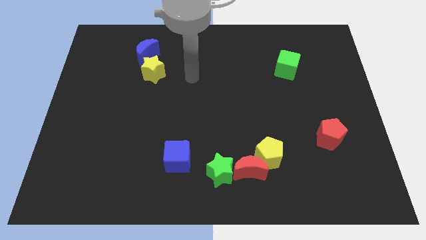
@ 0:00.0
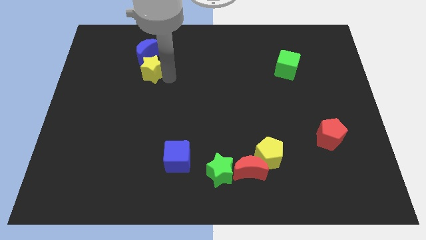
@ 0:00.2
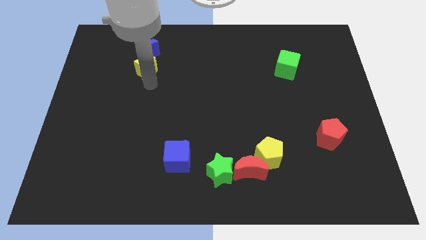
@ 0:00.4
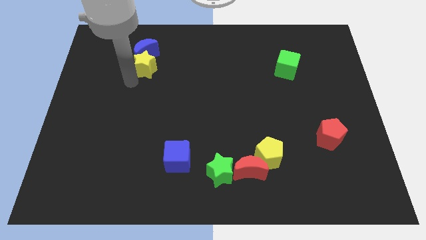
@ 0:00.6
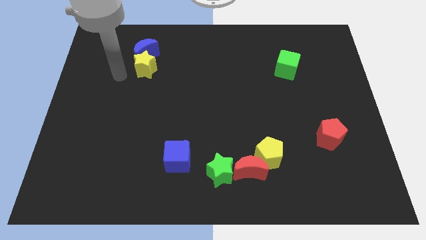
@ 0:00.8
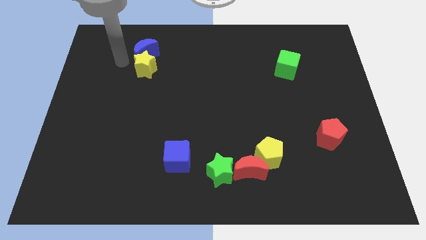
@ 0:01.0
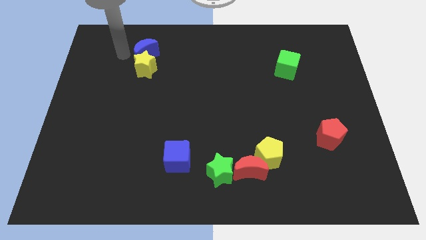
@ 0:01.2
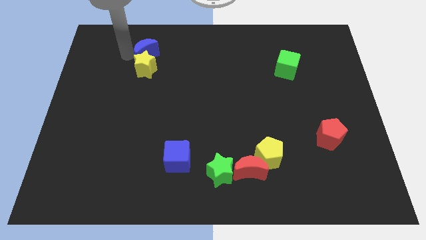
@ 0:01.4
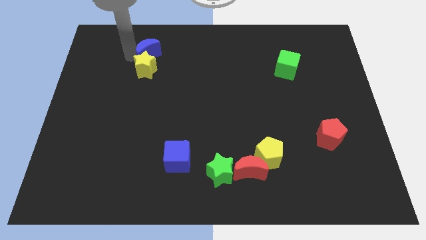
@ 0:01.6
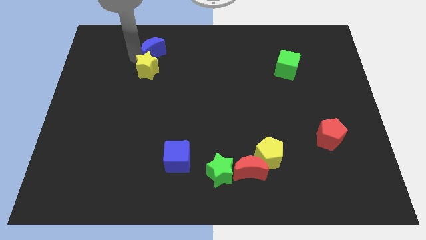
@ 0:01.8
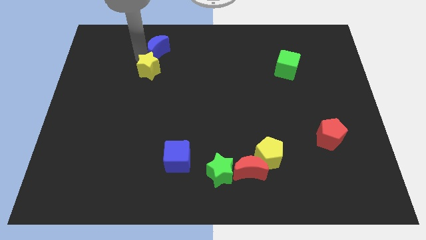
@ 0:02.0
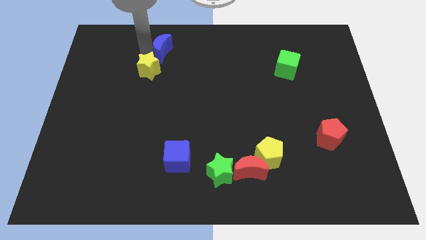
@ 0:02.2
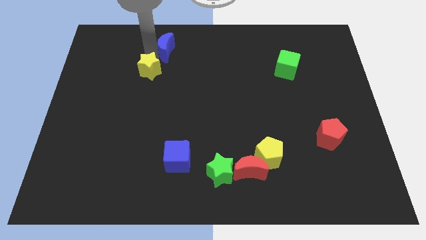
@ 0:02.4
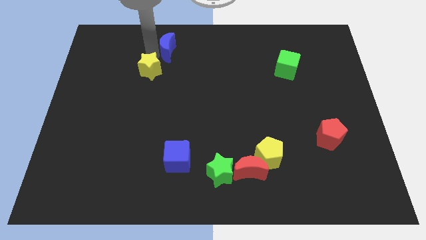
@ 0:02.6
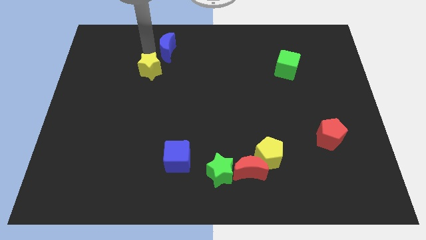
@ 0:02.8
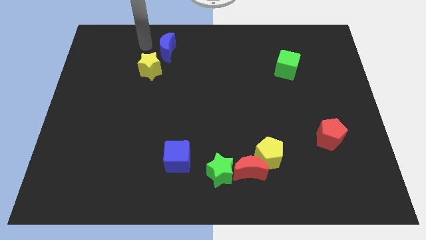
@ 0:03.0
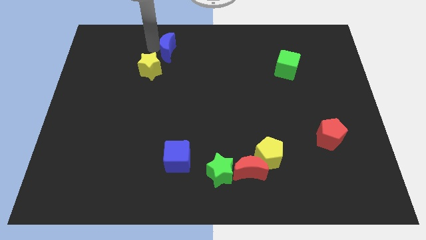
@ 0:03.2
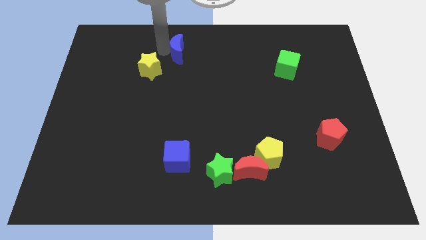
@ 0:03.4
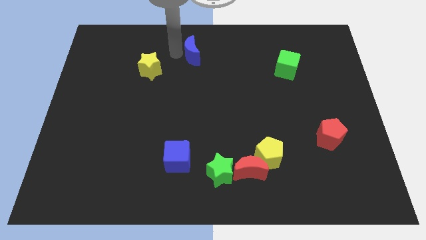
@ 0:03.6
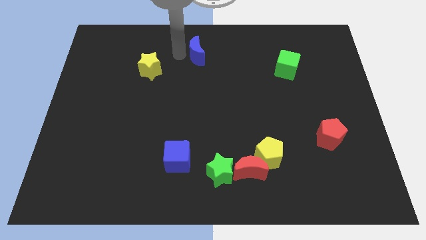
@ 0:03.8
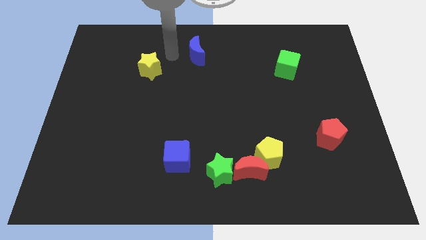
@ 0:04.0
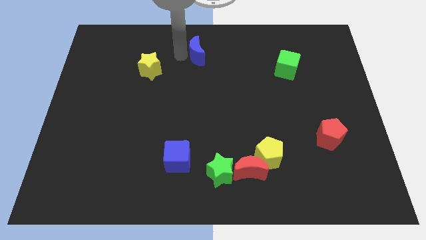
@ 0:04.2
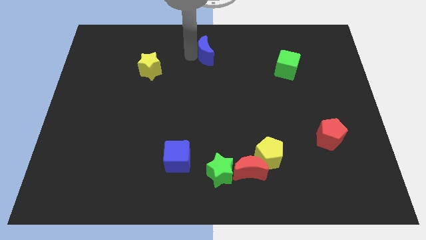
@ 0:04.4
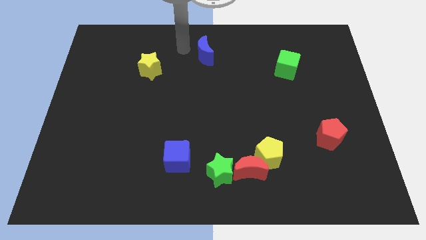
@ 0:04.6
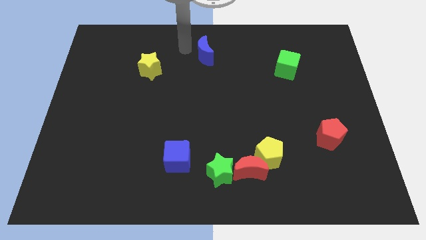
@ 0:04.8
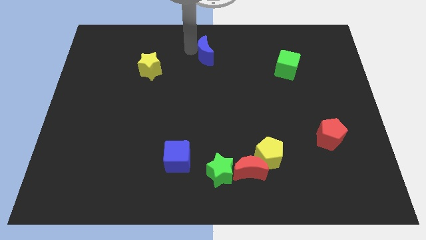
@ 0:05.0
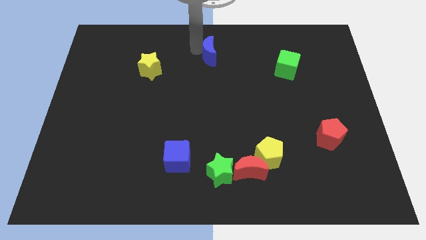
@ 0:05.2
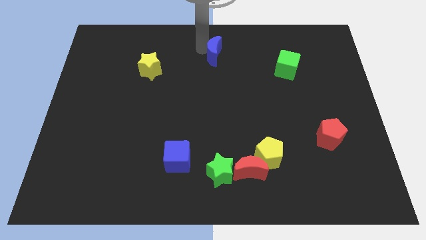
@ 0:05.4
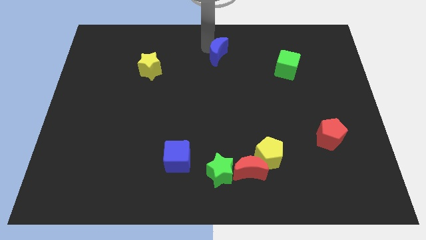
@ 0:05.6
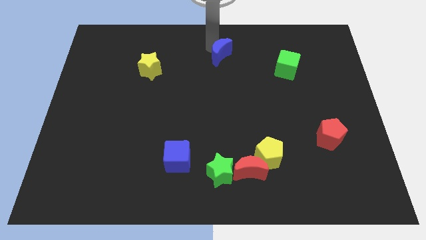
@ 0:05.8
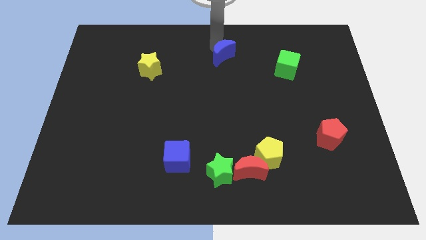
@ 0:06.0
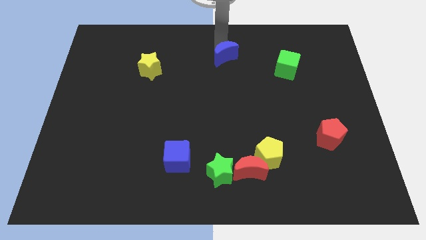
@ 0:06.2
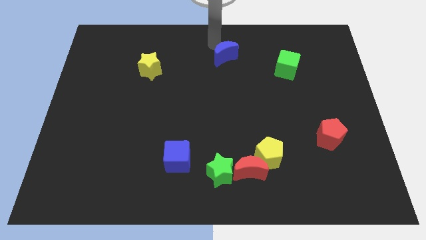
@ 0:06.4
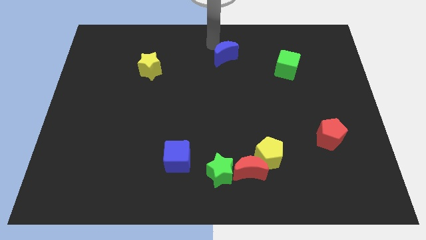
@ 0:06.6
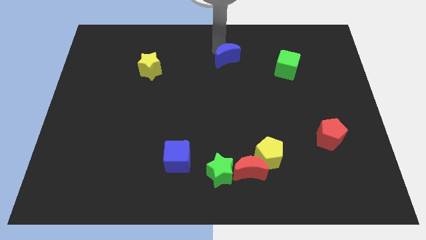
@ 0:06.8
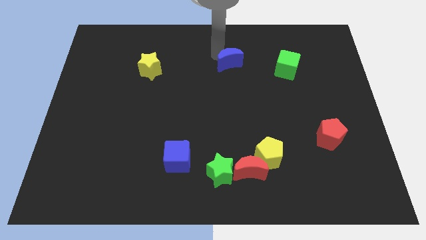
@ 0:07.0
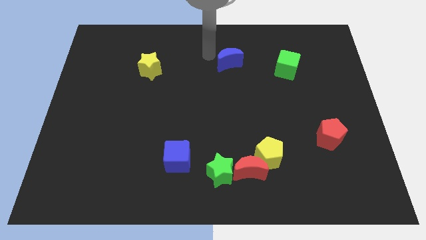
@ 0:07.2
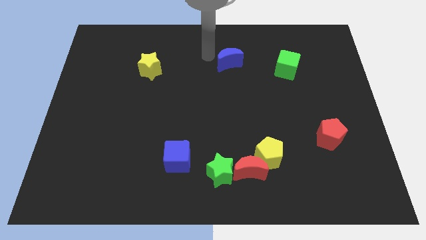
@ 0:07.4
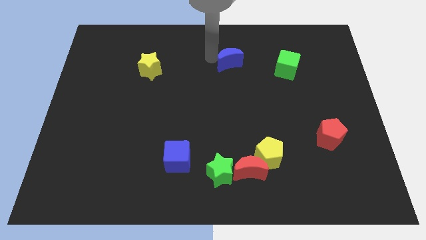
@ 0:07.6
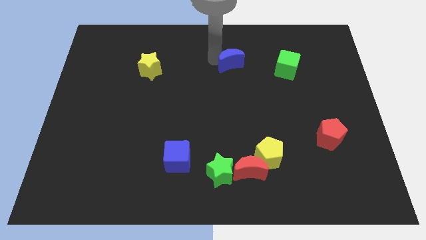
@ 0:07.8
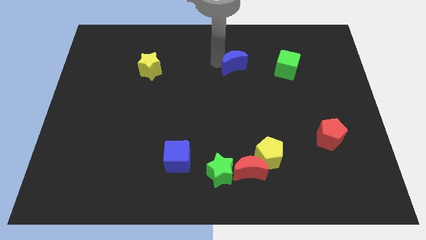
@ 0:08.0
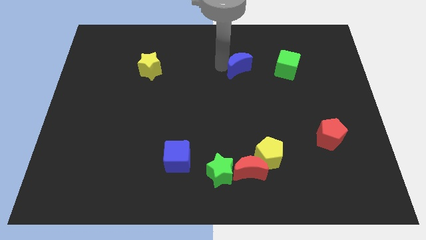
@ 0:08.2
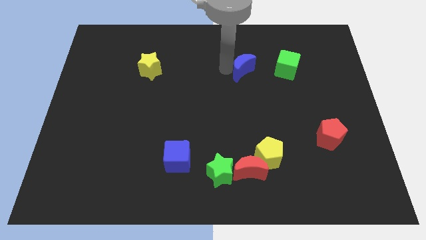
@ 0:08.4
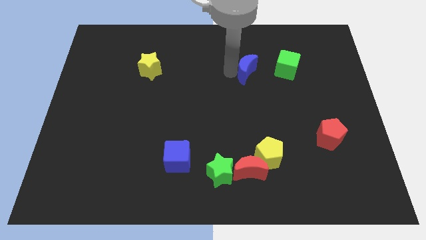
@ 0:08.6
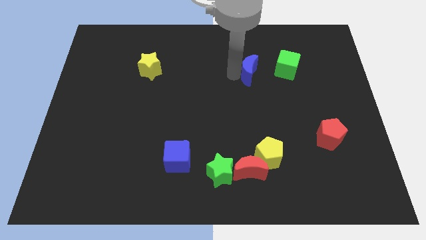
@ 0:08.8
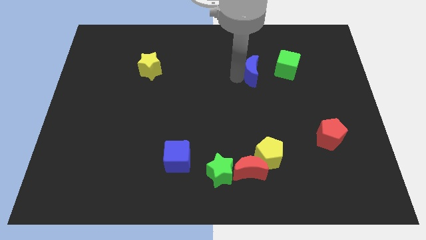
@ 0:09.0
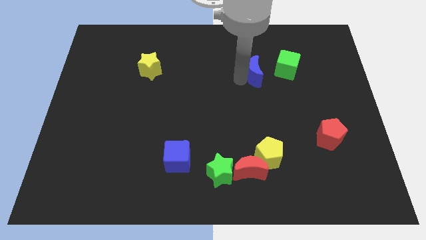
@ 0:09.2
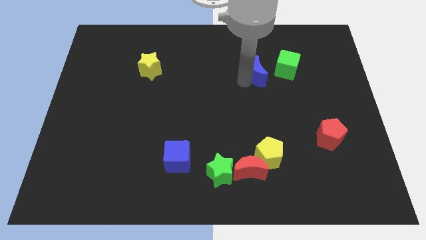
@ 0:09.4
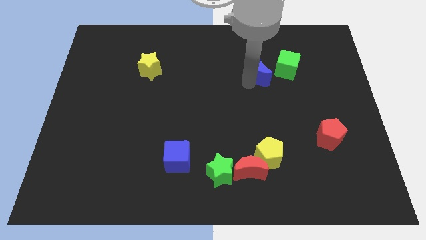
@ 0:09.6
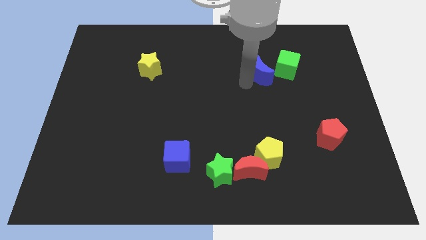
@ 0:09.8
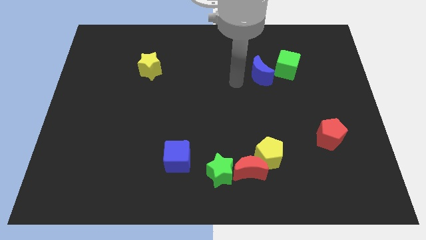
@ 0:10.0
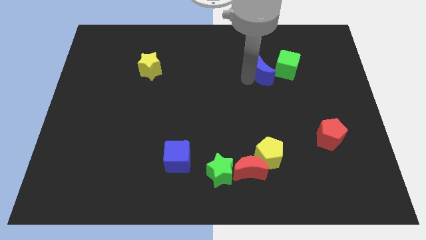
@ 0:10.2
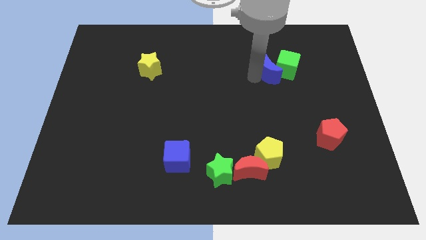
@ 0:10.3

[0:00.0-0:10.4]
move the blue moon next to the green cube

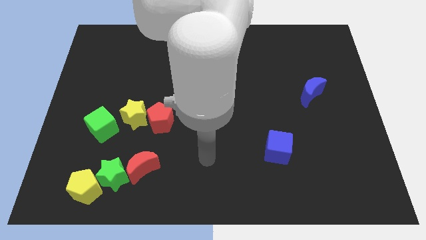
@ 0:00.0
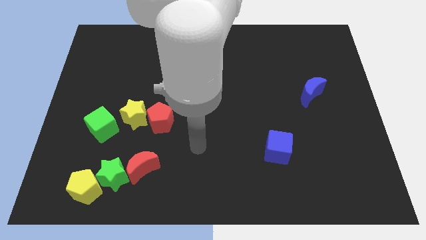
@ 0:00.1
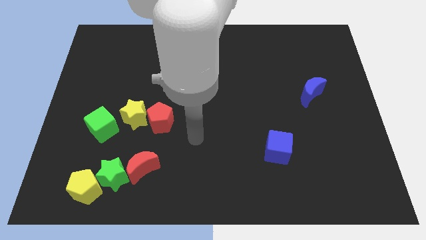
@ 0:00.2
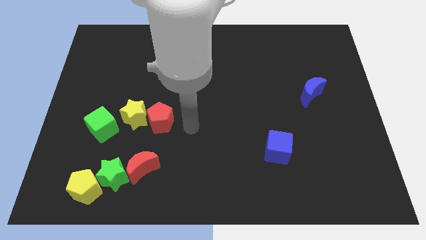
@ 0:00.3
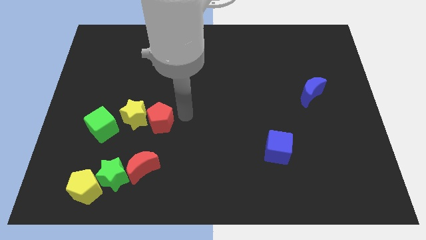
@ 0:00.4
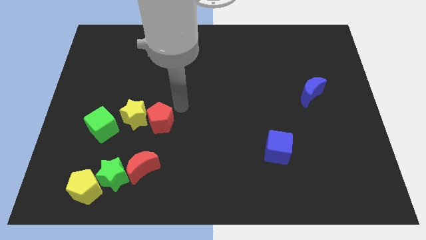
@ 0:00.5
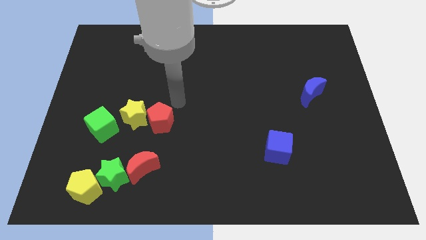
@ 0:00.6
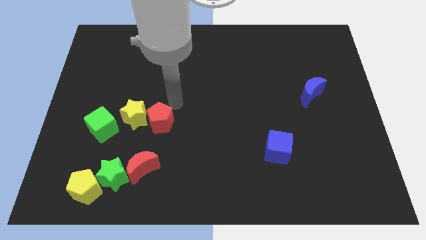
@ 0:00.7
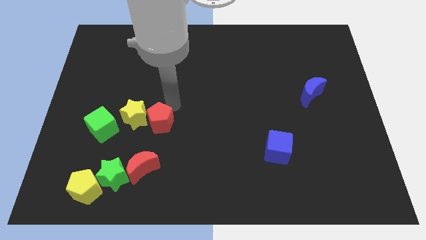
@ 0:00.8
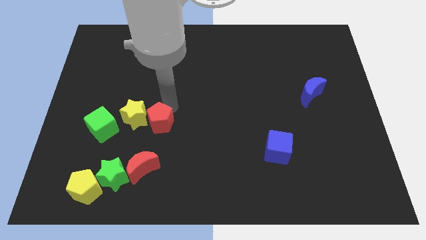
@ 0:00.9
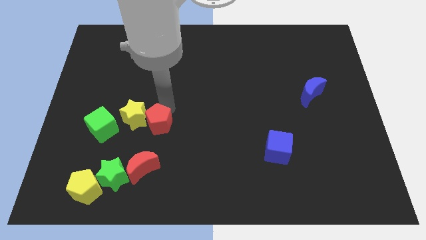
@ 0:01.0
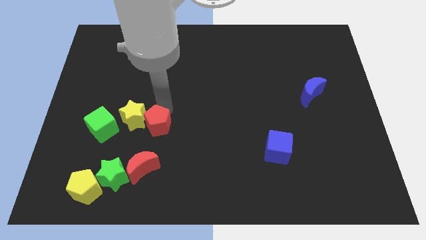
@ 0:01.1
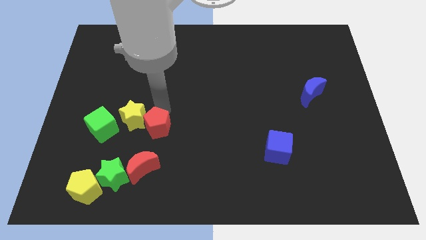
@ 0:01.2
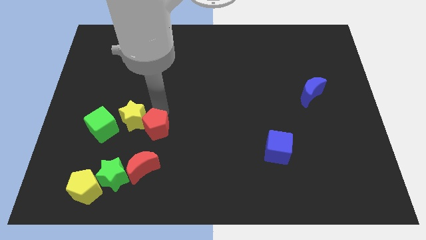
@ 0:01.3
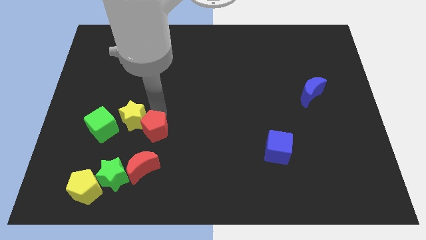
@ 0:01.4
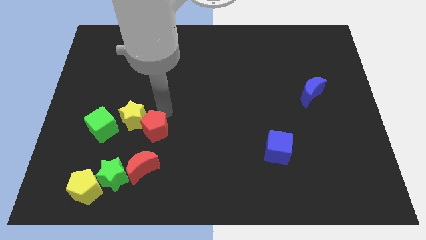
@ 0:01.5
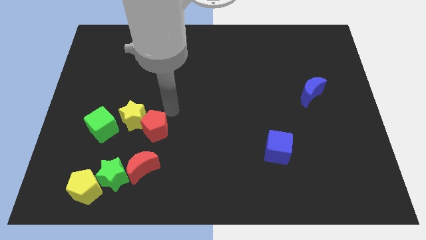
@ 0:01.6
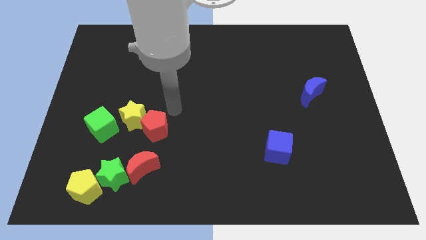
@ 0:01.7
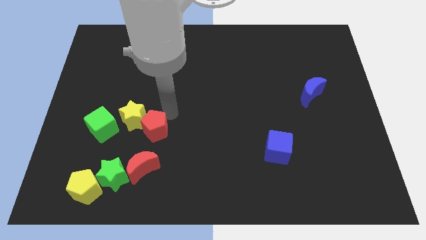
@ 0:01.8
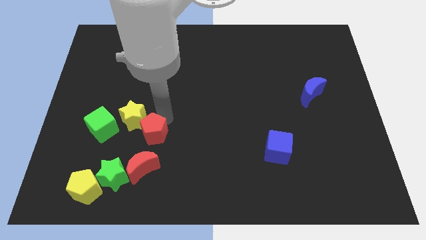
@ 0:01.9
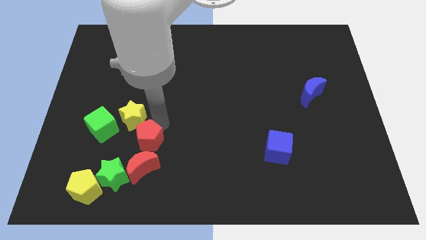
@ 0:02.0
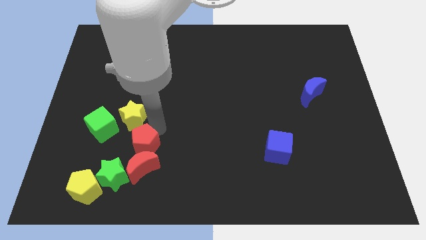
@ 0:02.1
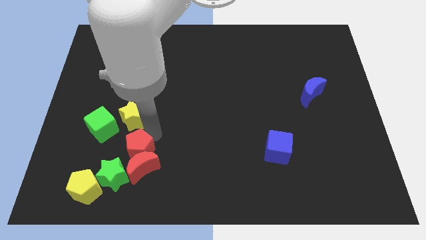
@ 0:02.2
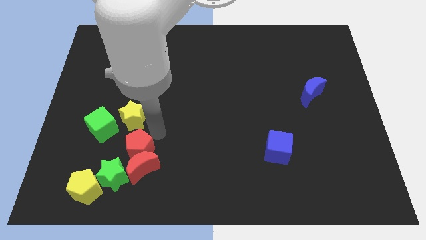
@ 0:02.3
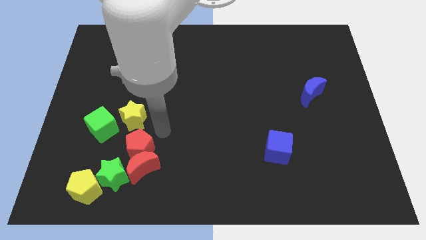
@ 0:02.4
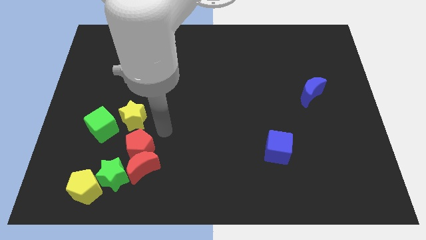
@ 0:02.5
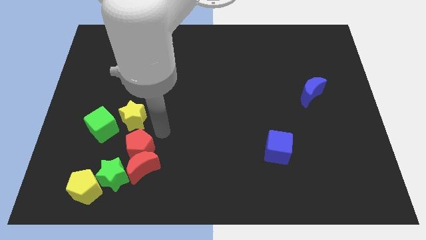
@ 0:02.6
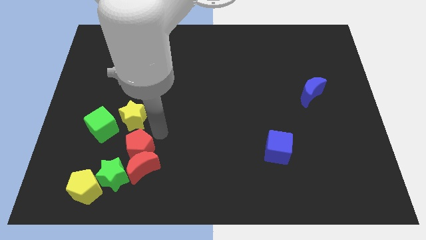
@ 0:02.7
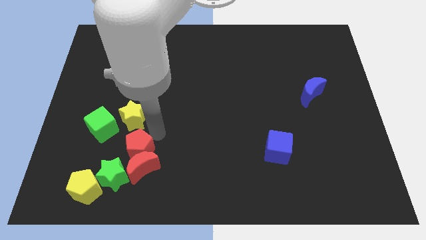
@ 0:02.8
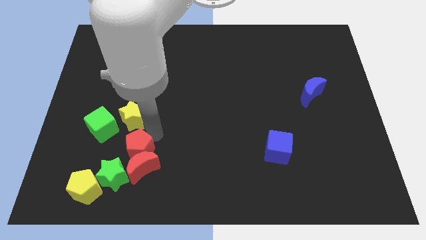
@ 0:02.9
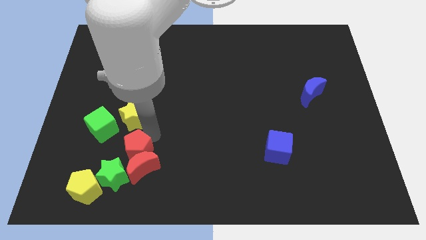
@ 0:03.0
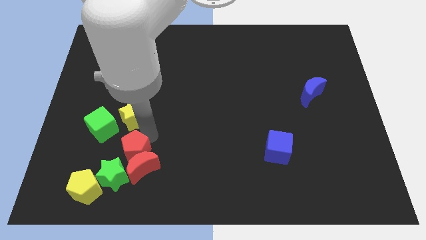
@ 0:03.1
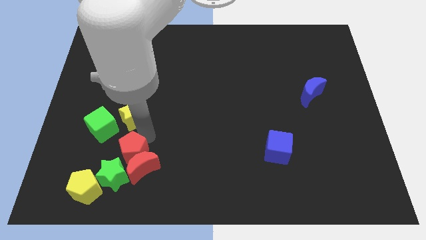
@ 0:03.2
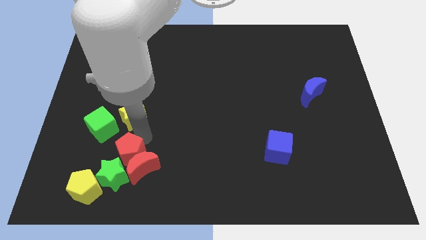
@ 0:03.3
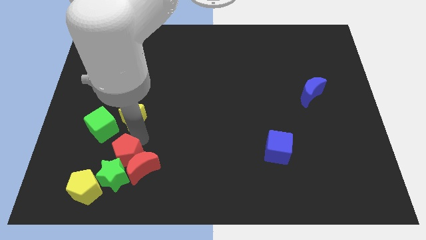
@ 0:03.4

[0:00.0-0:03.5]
move the red pentagon next to the green star
